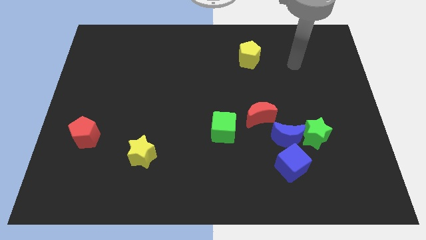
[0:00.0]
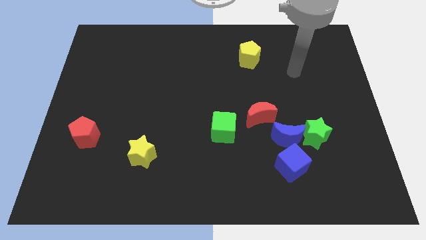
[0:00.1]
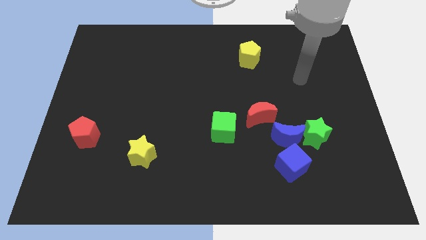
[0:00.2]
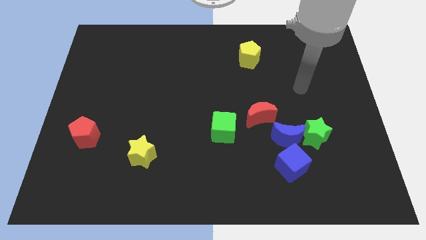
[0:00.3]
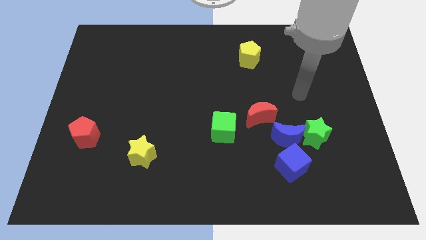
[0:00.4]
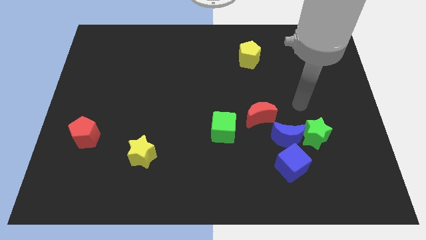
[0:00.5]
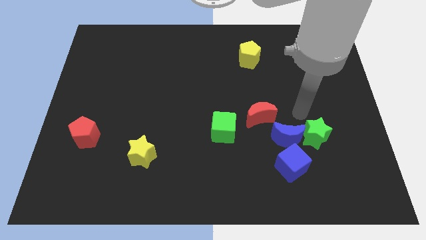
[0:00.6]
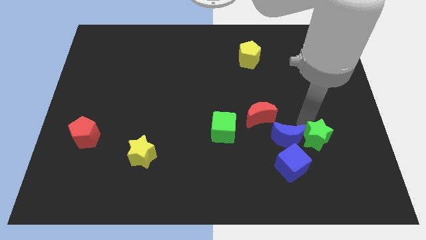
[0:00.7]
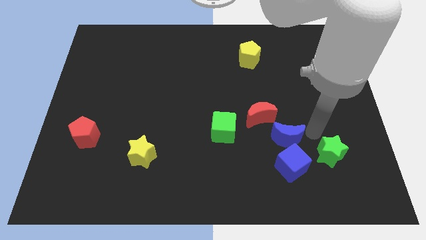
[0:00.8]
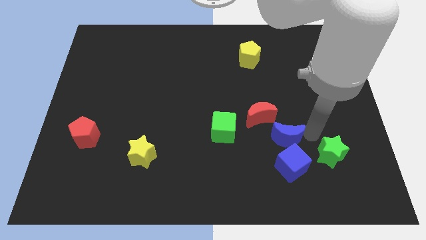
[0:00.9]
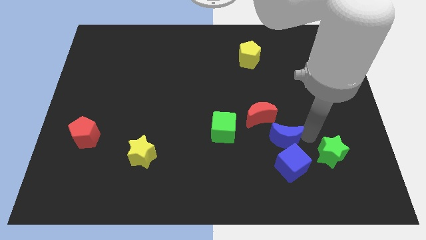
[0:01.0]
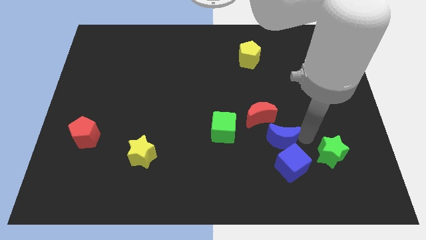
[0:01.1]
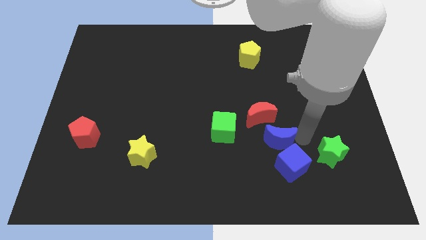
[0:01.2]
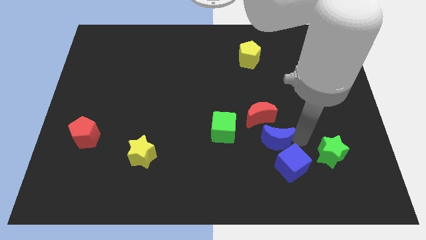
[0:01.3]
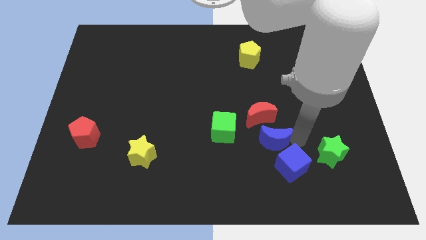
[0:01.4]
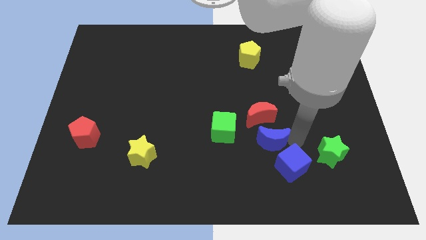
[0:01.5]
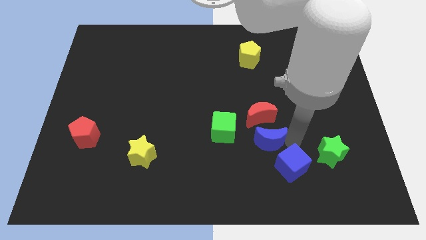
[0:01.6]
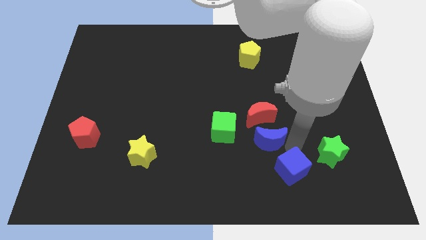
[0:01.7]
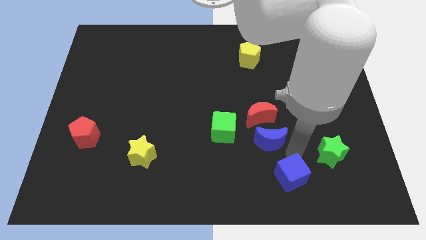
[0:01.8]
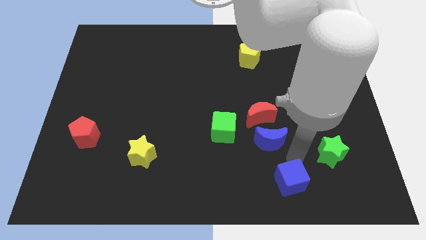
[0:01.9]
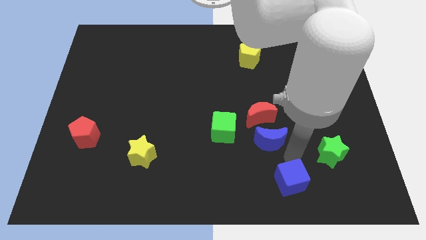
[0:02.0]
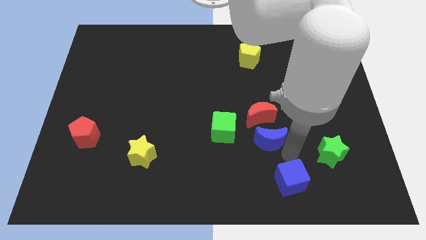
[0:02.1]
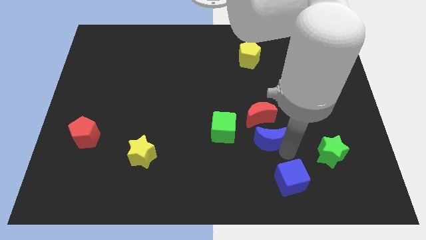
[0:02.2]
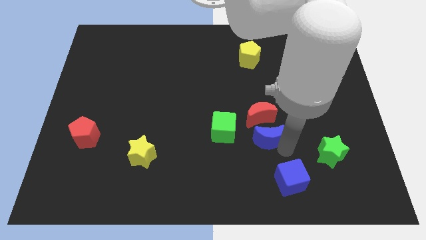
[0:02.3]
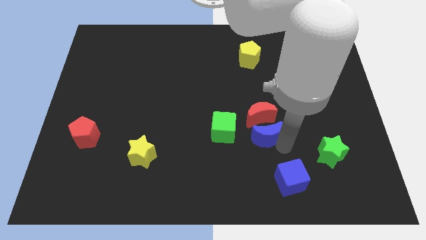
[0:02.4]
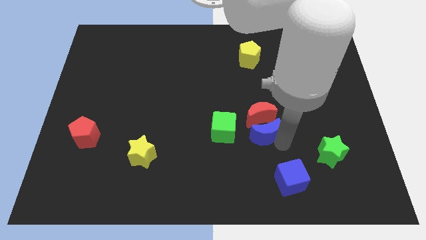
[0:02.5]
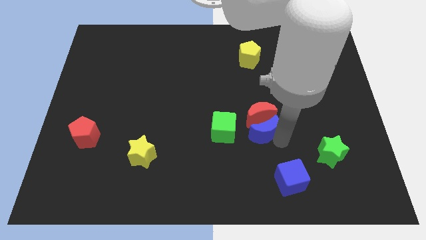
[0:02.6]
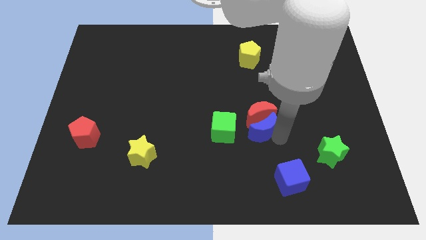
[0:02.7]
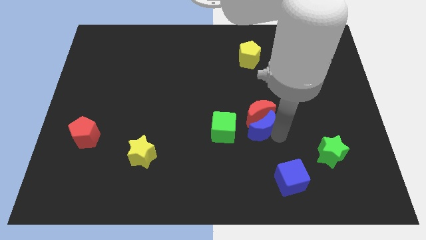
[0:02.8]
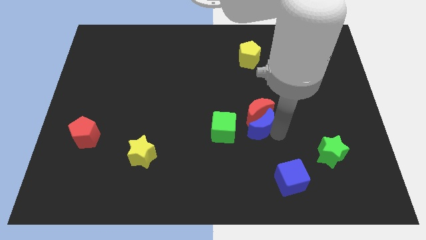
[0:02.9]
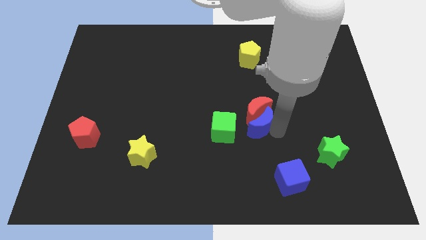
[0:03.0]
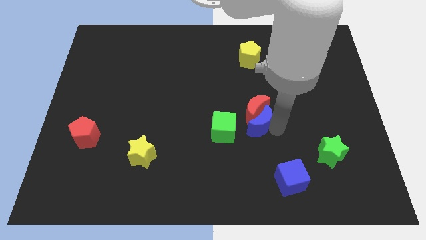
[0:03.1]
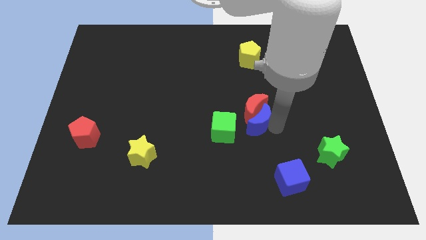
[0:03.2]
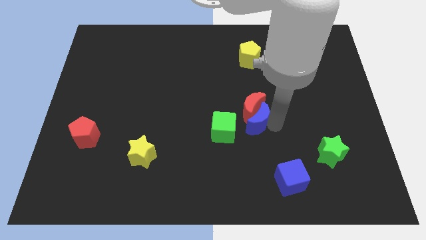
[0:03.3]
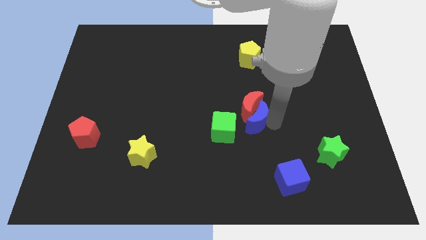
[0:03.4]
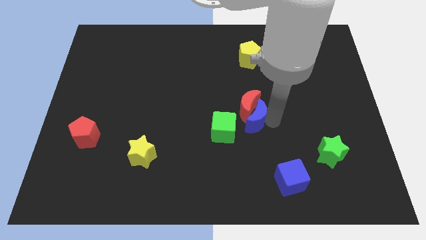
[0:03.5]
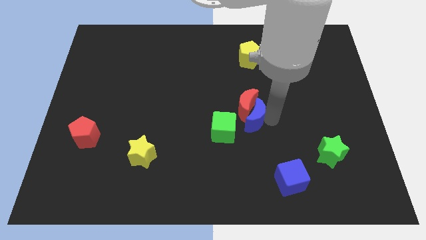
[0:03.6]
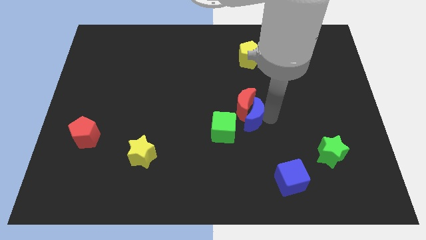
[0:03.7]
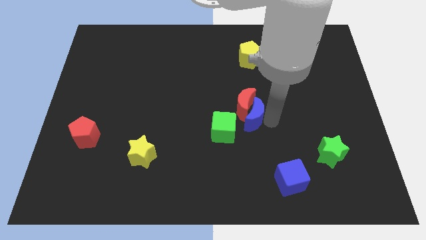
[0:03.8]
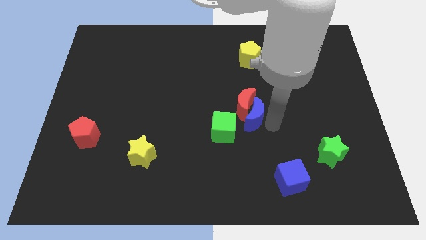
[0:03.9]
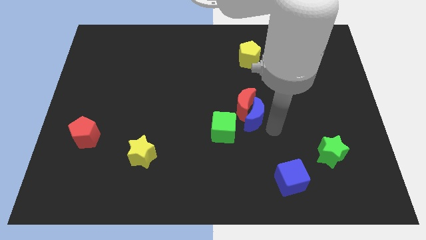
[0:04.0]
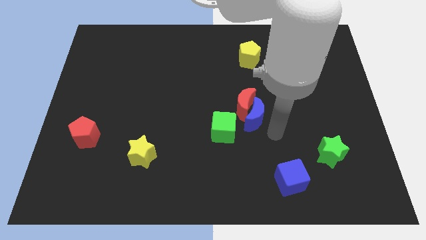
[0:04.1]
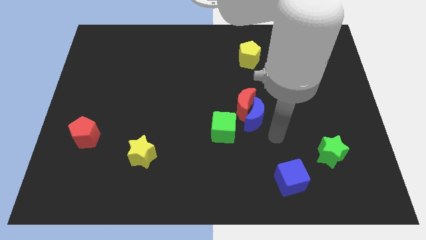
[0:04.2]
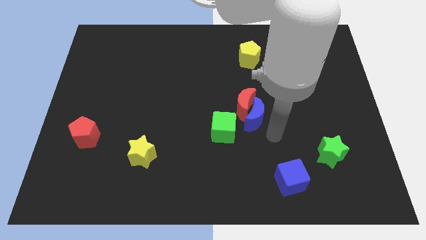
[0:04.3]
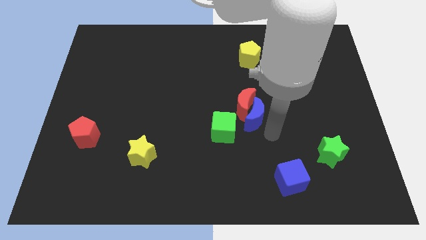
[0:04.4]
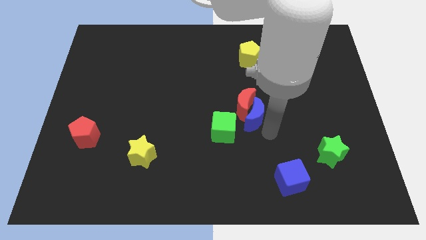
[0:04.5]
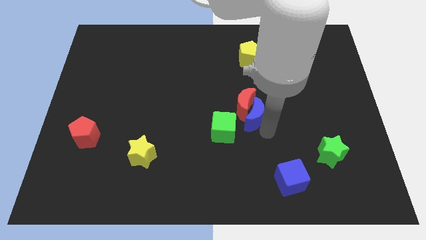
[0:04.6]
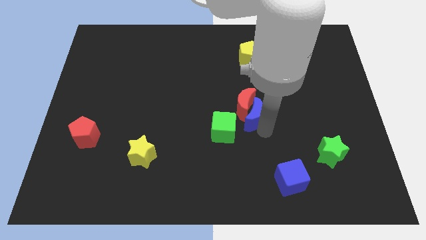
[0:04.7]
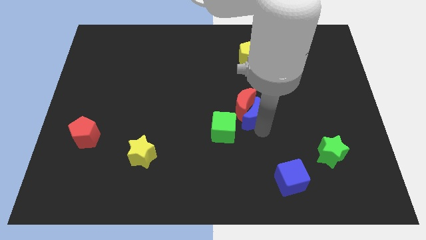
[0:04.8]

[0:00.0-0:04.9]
move the blue moon away from the group

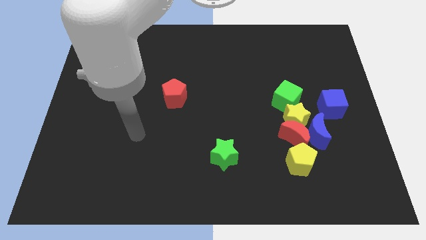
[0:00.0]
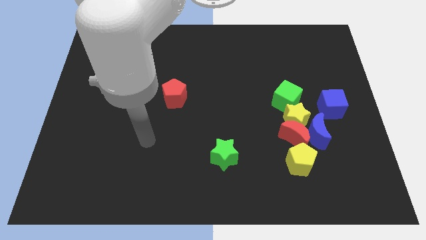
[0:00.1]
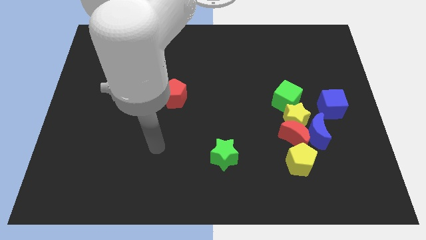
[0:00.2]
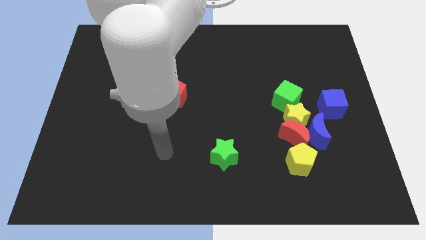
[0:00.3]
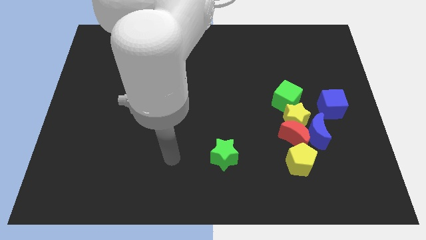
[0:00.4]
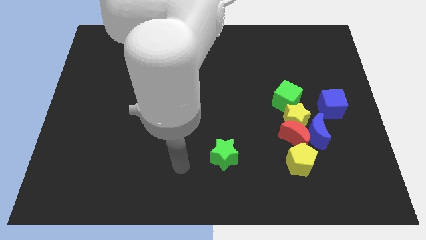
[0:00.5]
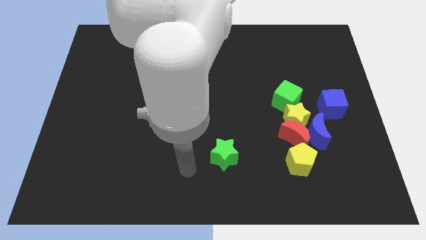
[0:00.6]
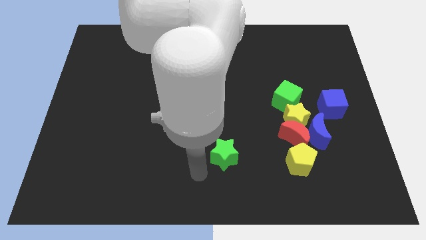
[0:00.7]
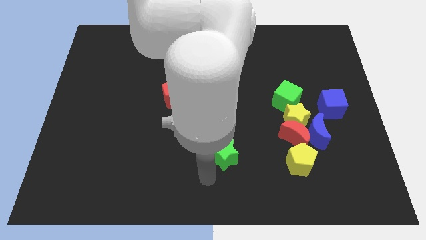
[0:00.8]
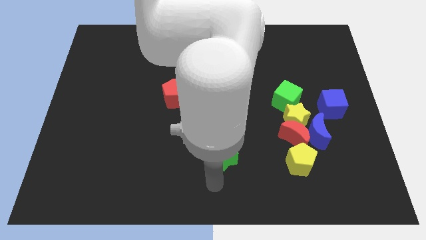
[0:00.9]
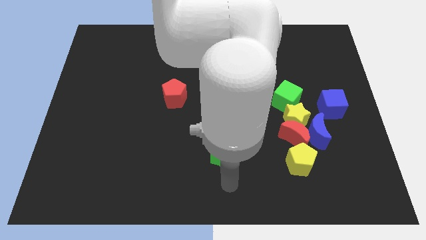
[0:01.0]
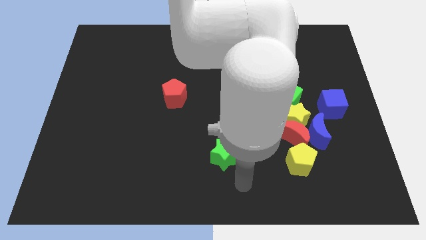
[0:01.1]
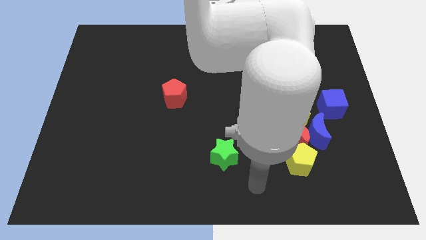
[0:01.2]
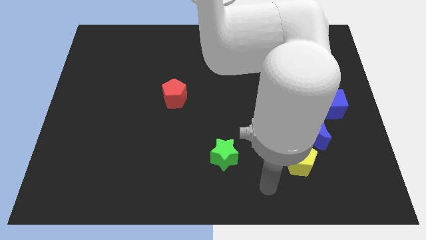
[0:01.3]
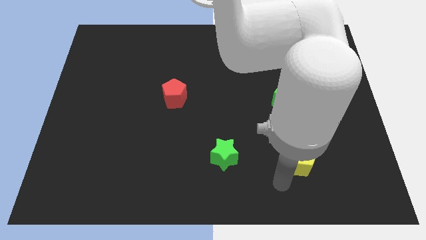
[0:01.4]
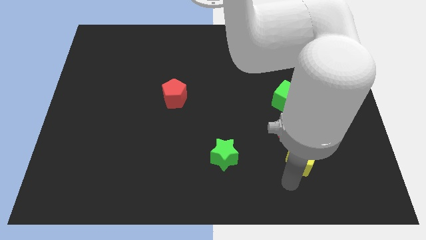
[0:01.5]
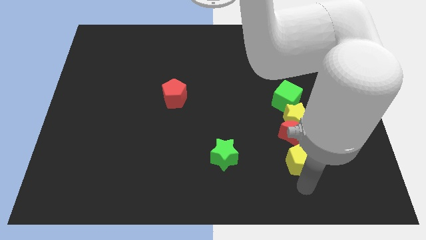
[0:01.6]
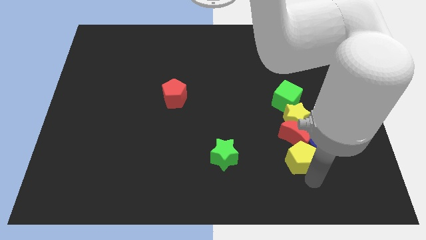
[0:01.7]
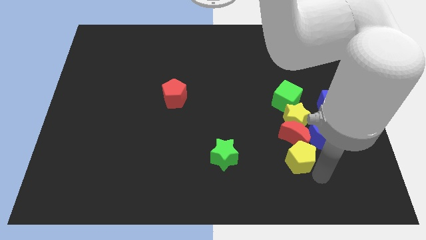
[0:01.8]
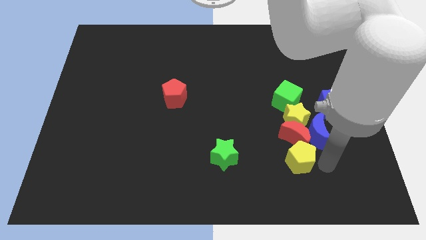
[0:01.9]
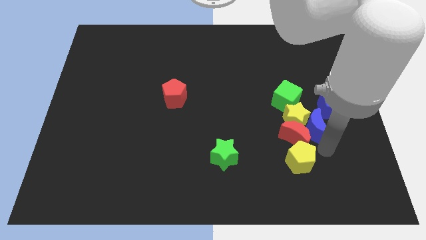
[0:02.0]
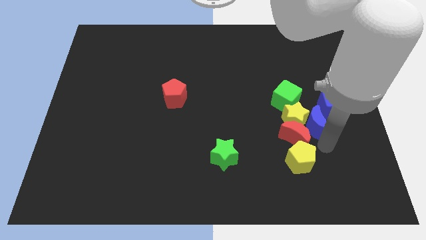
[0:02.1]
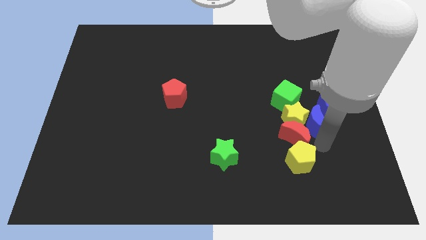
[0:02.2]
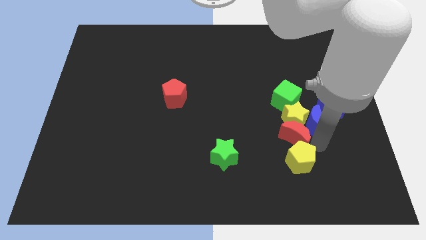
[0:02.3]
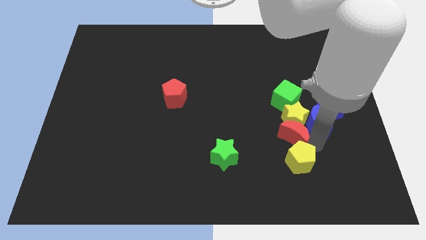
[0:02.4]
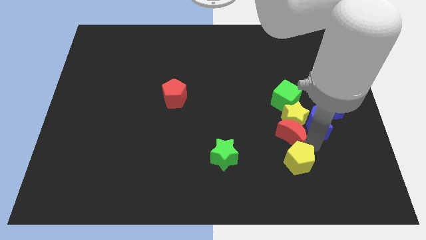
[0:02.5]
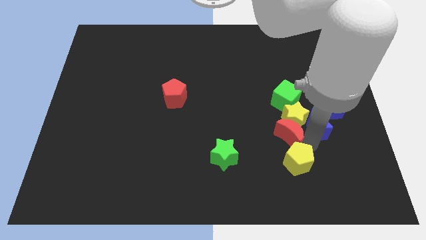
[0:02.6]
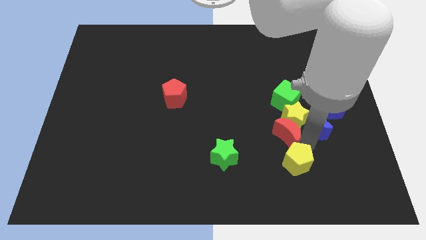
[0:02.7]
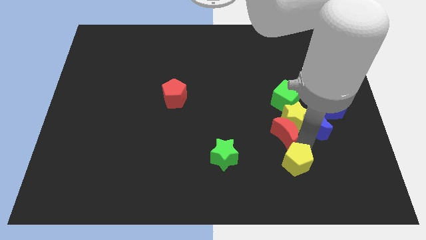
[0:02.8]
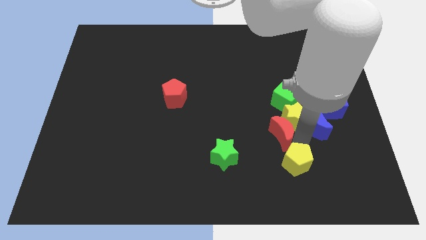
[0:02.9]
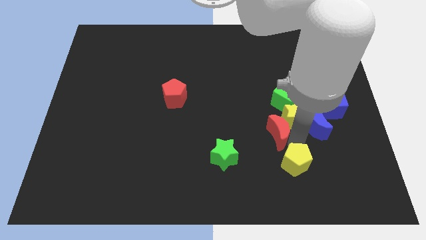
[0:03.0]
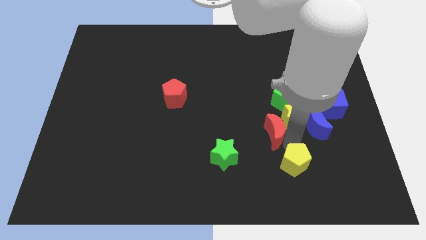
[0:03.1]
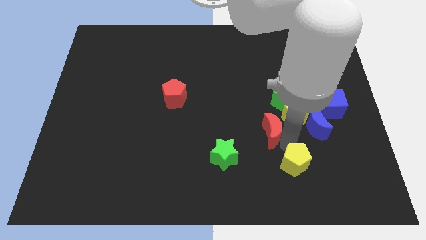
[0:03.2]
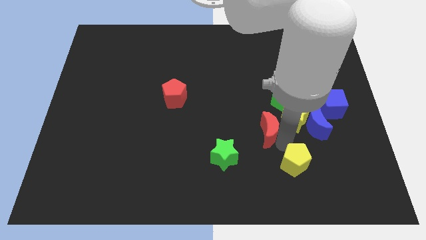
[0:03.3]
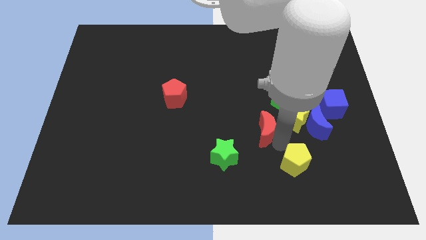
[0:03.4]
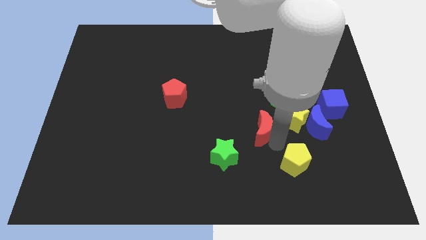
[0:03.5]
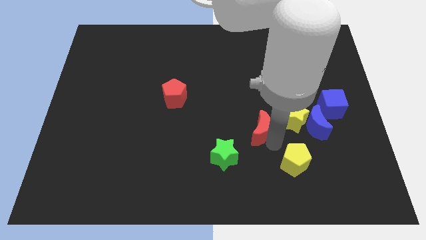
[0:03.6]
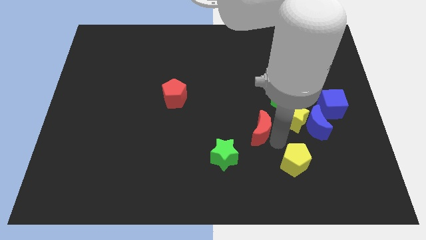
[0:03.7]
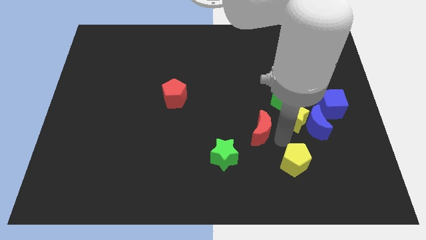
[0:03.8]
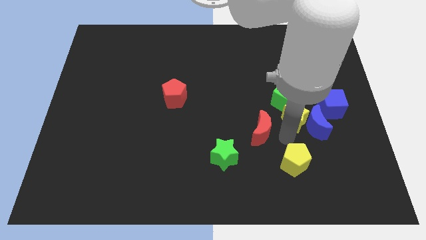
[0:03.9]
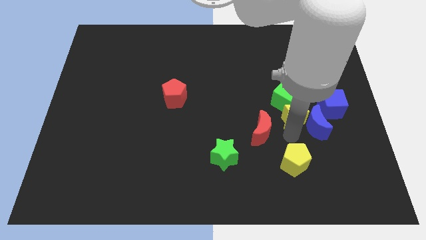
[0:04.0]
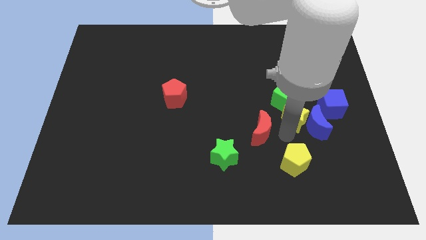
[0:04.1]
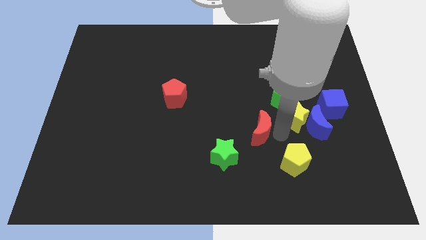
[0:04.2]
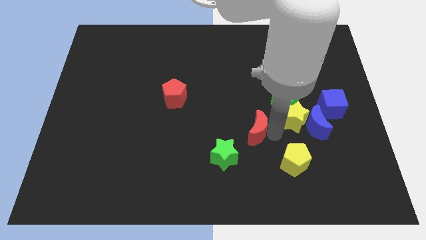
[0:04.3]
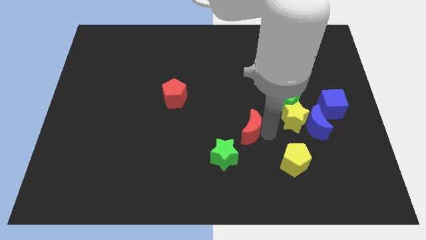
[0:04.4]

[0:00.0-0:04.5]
separate the red moon from the yellow star, blue moon, and yellow pentagon

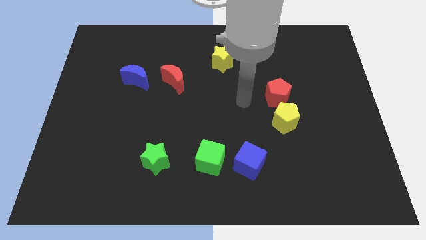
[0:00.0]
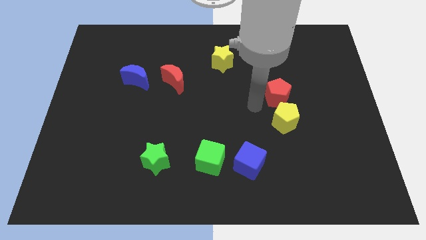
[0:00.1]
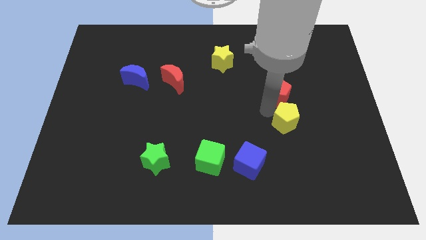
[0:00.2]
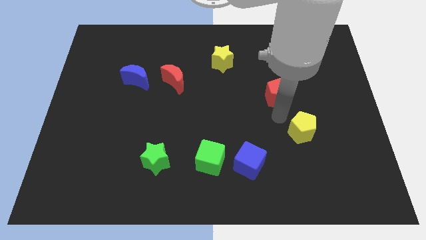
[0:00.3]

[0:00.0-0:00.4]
move the red pentagon away from the yellow pentagon
